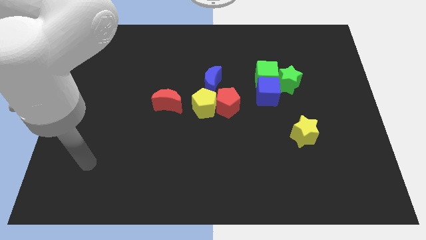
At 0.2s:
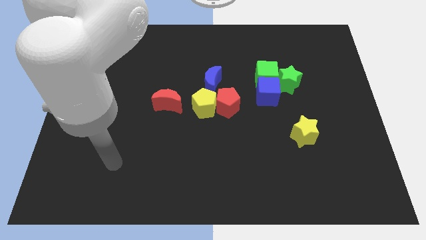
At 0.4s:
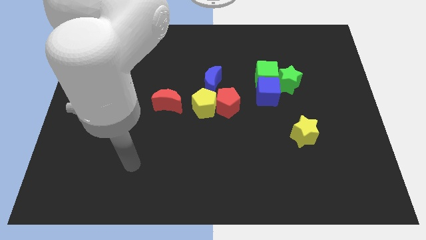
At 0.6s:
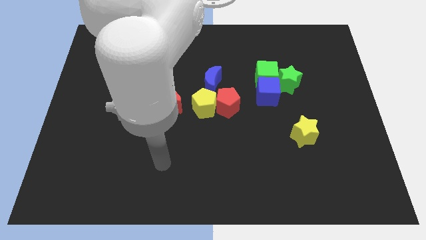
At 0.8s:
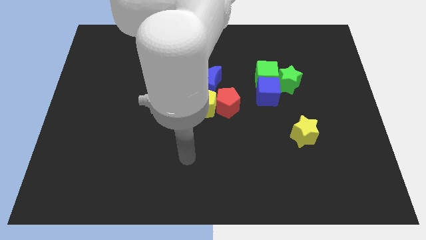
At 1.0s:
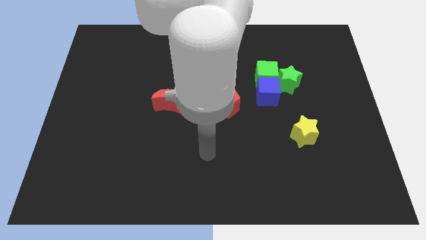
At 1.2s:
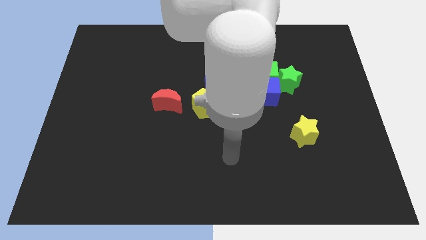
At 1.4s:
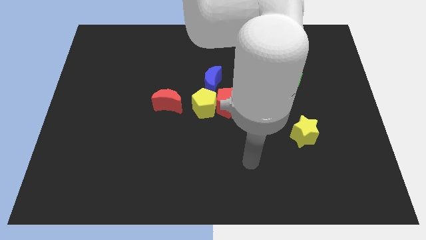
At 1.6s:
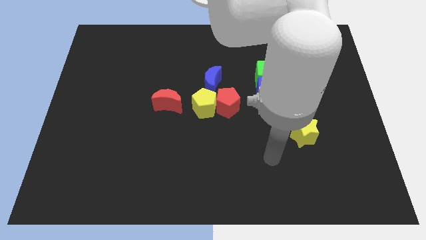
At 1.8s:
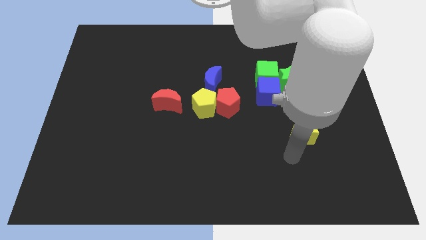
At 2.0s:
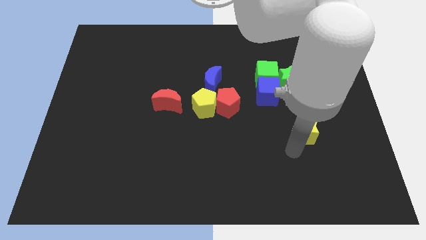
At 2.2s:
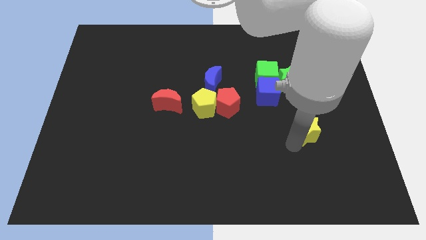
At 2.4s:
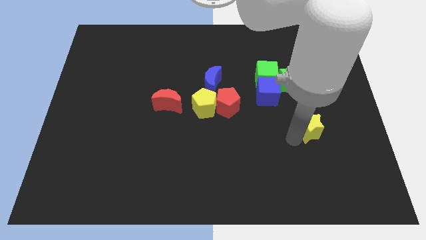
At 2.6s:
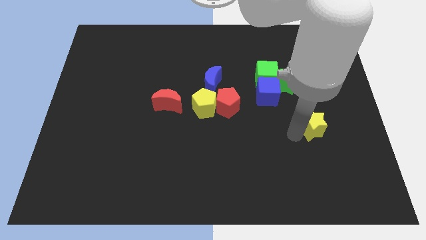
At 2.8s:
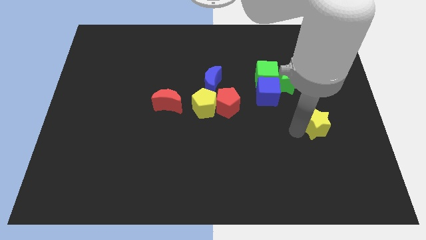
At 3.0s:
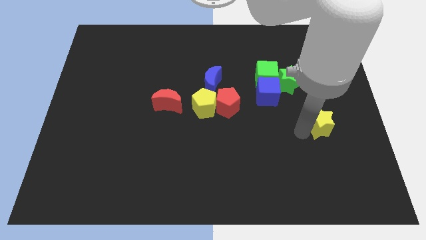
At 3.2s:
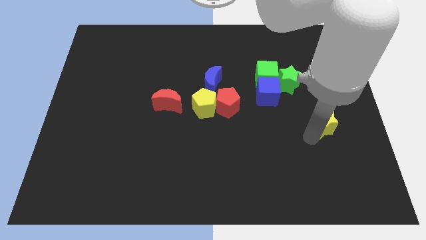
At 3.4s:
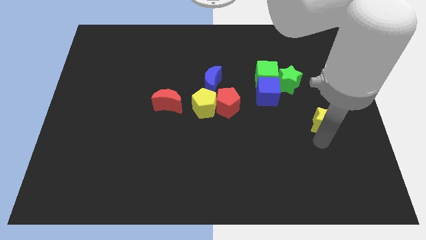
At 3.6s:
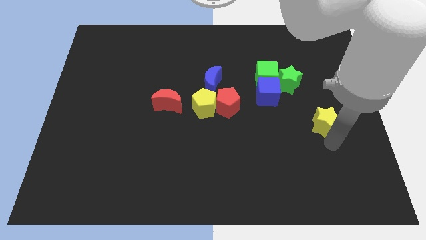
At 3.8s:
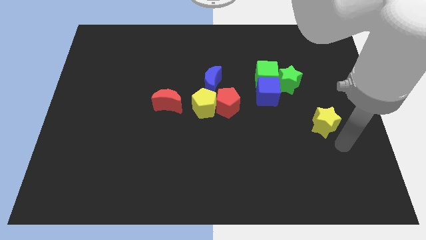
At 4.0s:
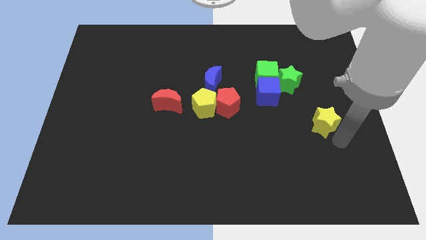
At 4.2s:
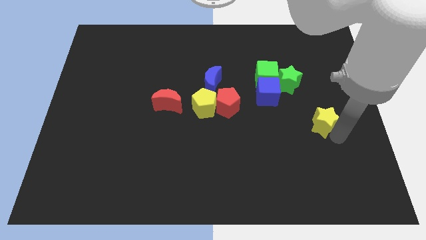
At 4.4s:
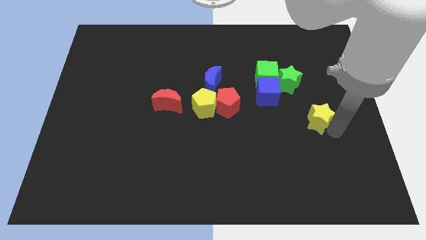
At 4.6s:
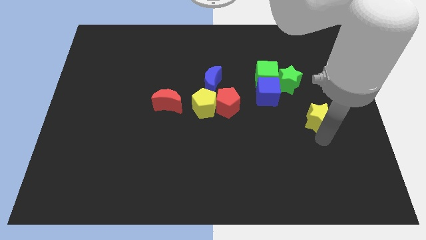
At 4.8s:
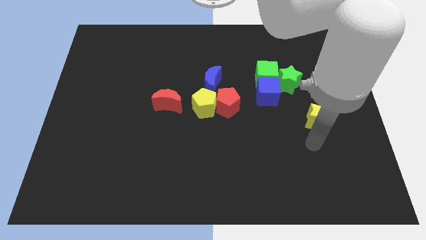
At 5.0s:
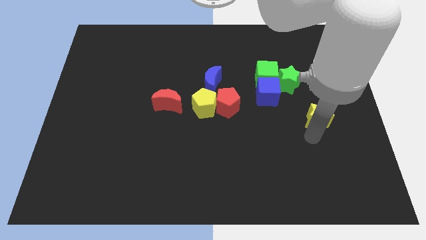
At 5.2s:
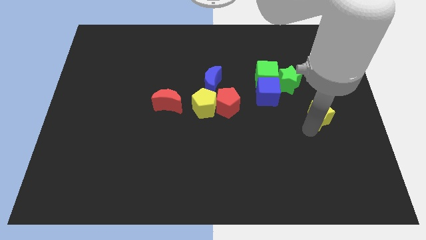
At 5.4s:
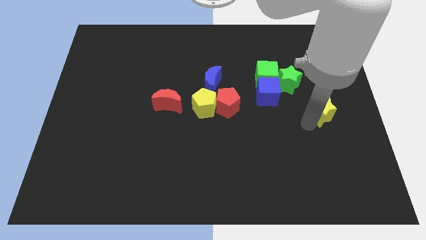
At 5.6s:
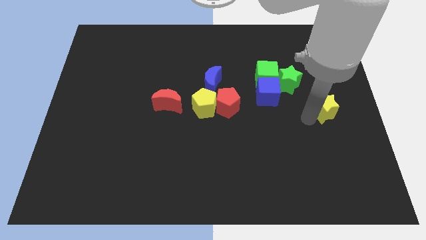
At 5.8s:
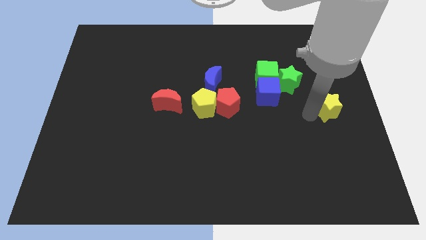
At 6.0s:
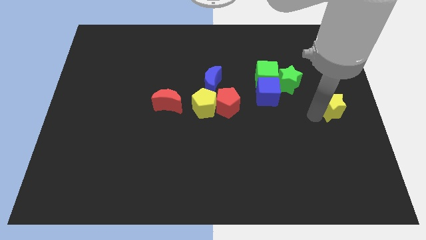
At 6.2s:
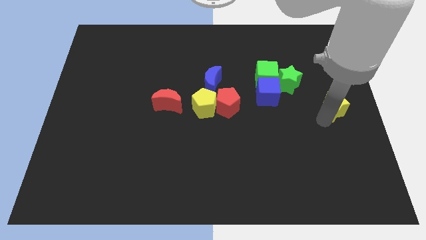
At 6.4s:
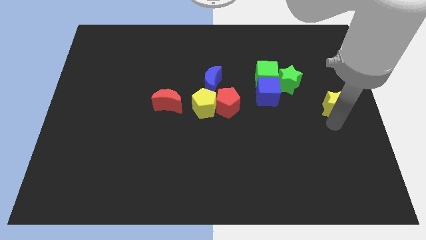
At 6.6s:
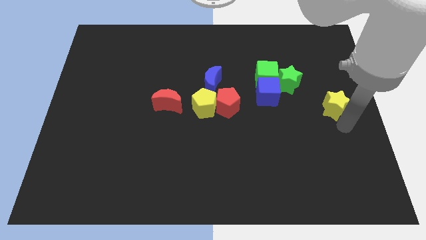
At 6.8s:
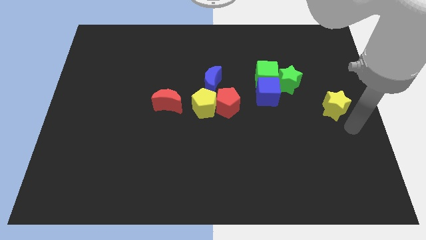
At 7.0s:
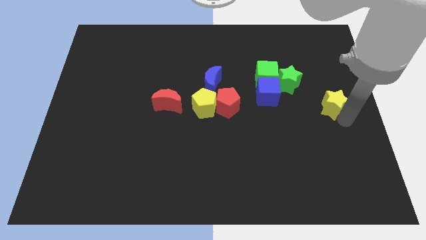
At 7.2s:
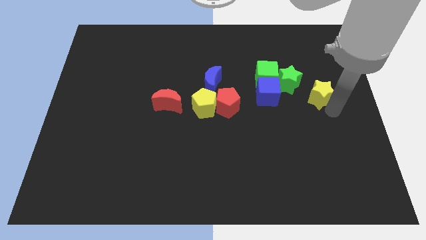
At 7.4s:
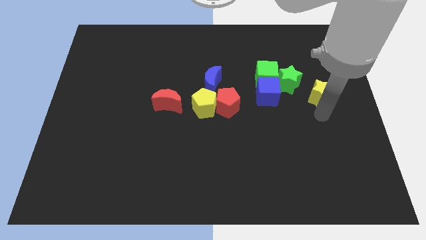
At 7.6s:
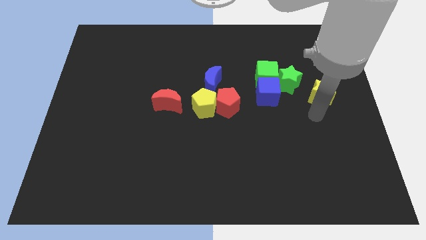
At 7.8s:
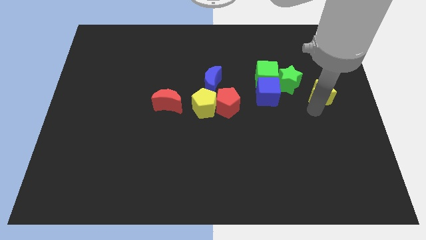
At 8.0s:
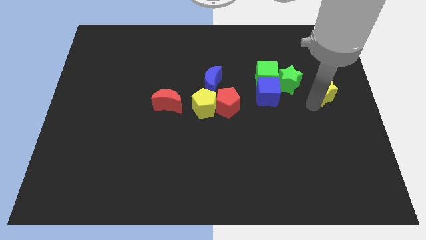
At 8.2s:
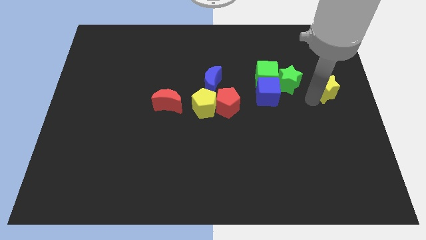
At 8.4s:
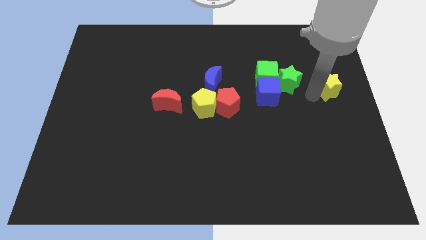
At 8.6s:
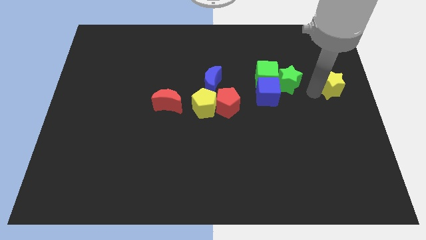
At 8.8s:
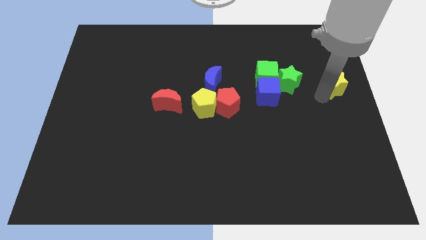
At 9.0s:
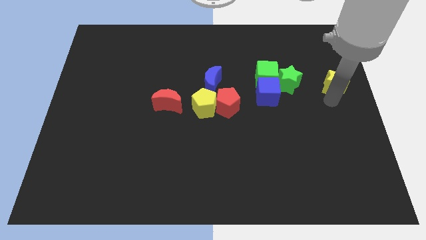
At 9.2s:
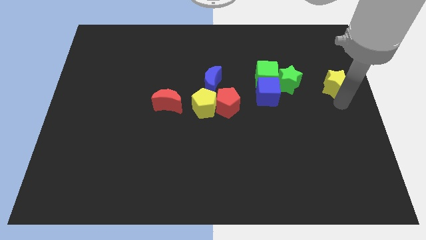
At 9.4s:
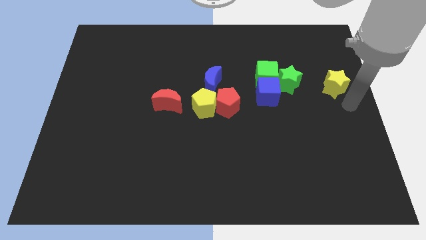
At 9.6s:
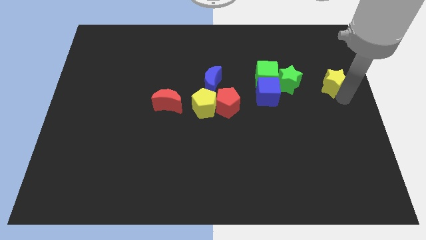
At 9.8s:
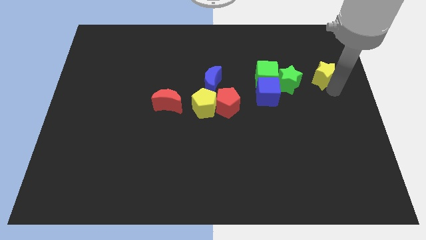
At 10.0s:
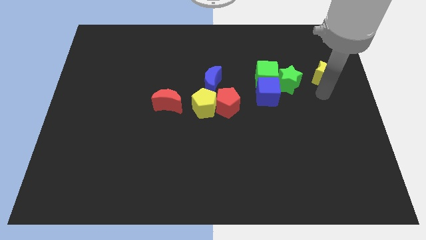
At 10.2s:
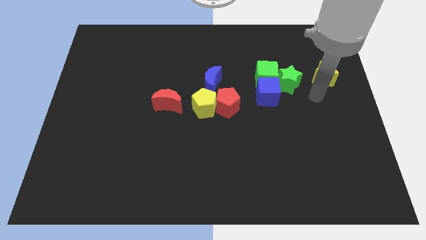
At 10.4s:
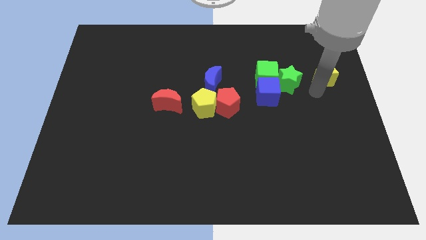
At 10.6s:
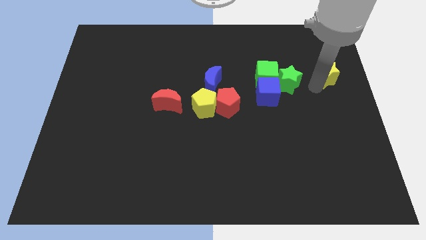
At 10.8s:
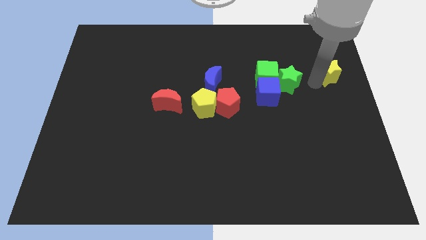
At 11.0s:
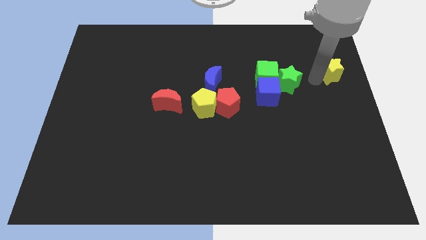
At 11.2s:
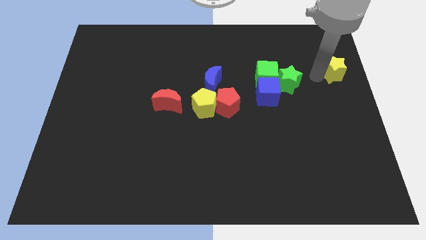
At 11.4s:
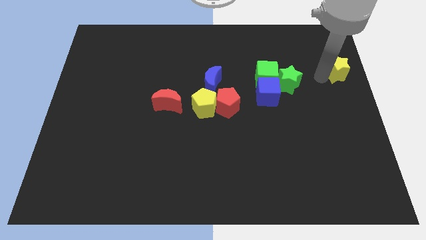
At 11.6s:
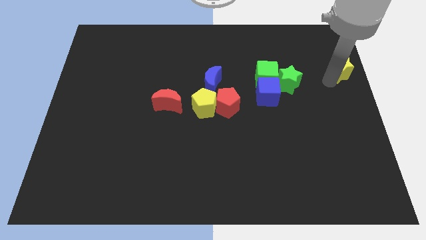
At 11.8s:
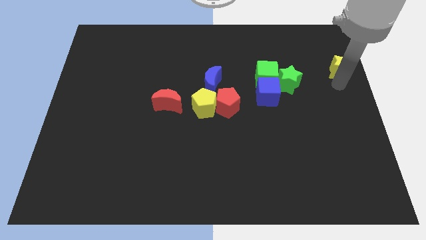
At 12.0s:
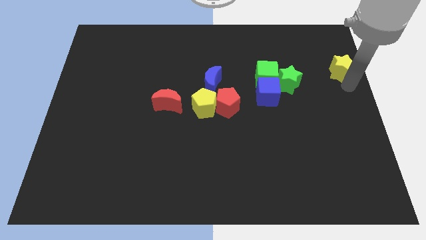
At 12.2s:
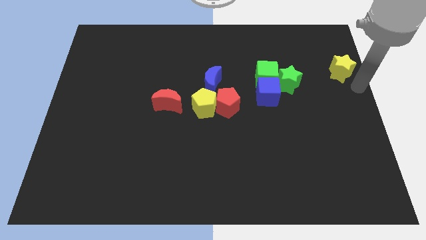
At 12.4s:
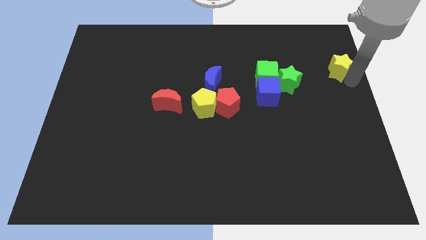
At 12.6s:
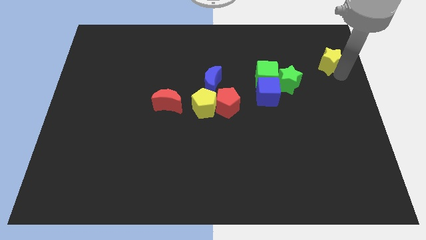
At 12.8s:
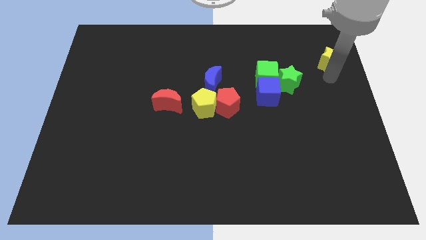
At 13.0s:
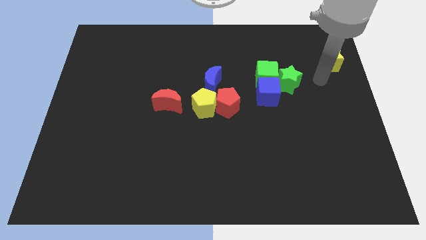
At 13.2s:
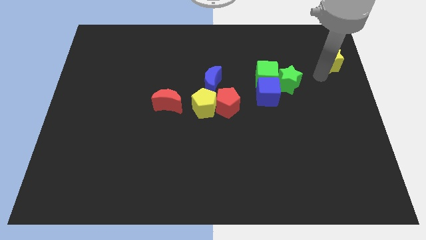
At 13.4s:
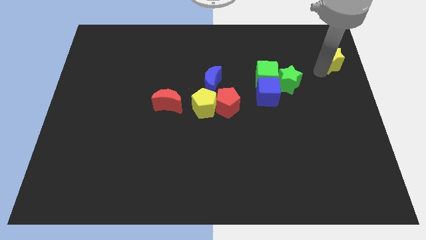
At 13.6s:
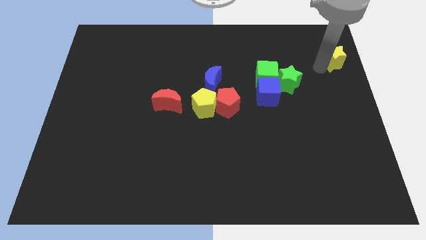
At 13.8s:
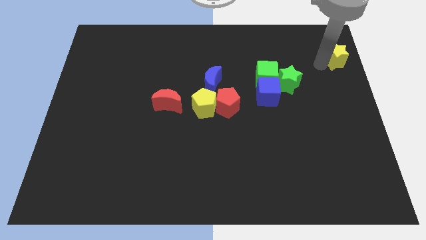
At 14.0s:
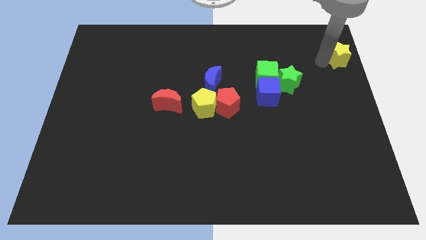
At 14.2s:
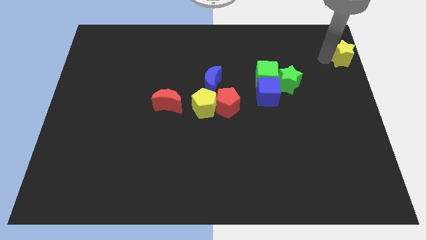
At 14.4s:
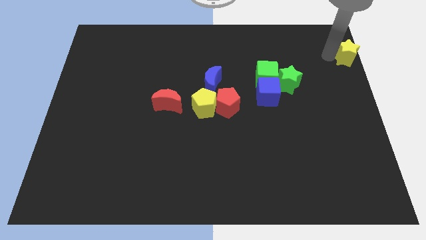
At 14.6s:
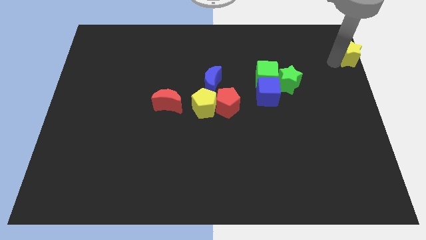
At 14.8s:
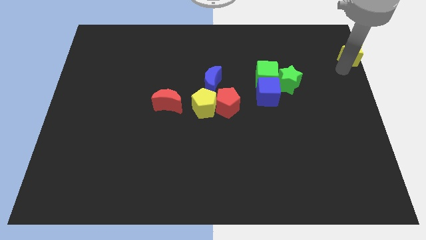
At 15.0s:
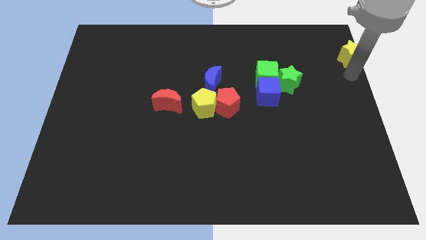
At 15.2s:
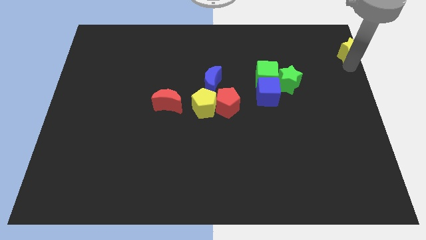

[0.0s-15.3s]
push the yellow star to the upper right corner
